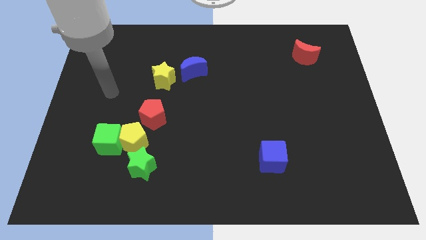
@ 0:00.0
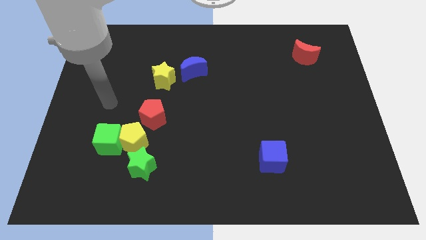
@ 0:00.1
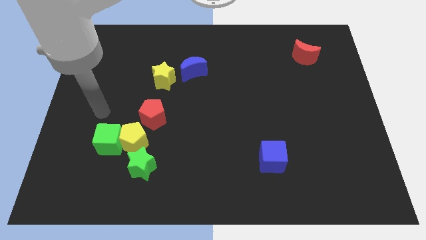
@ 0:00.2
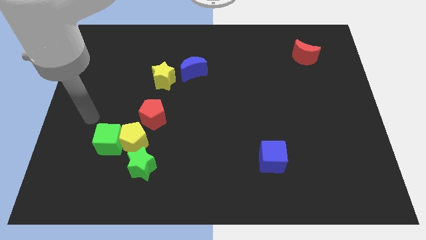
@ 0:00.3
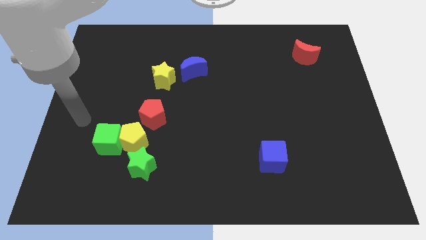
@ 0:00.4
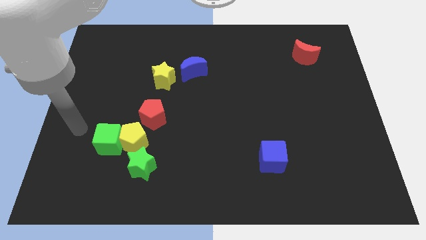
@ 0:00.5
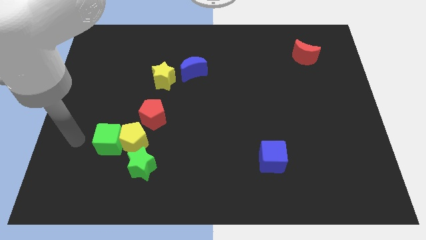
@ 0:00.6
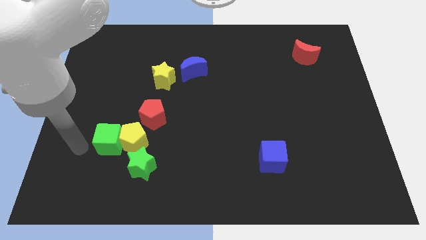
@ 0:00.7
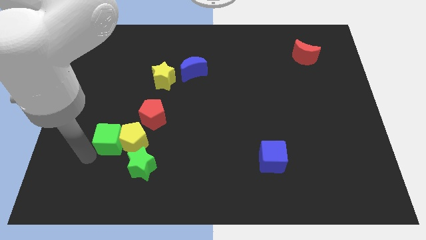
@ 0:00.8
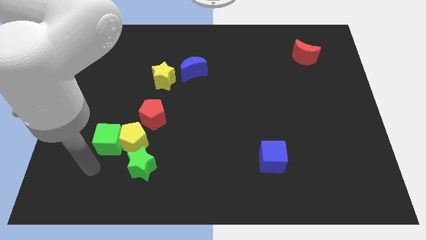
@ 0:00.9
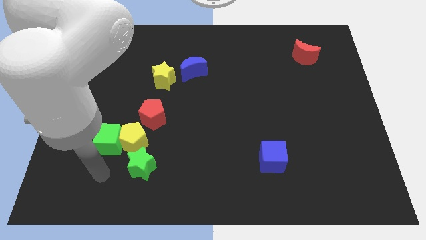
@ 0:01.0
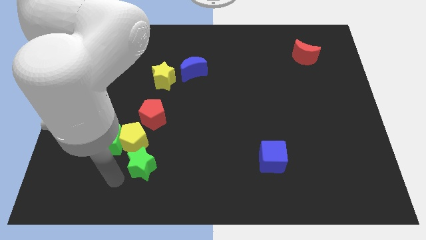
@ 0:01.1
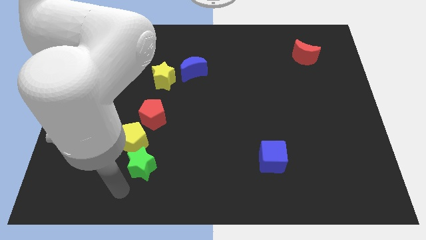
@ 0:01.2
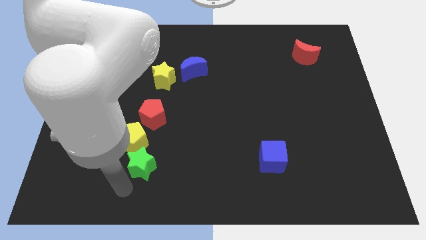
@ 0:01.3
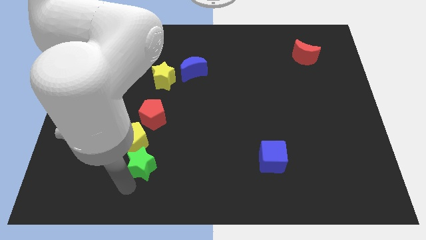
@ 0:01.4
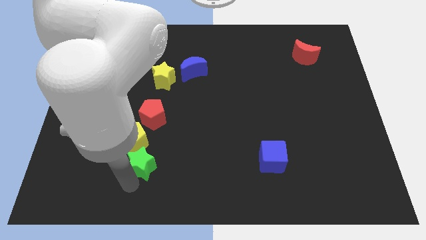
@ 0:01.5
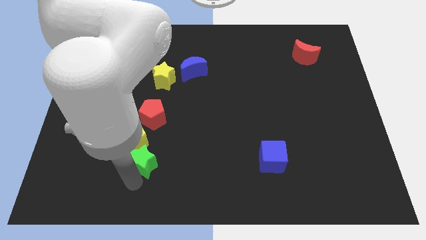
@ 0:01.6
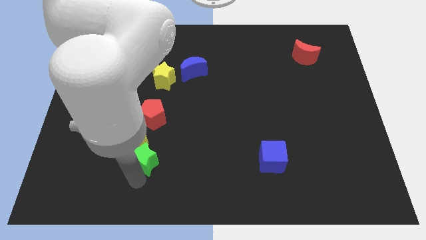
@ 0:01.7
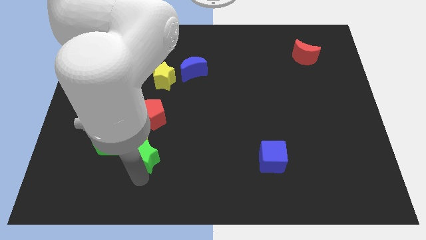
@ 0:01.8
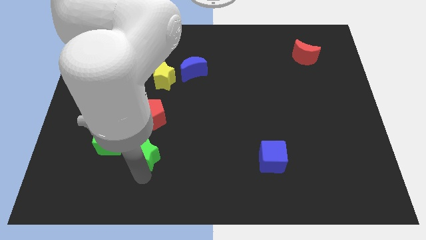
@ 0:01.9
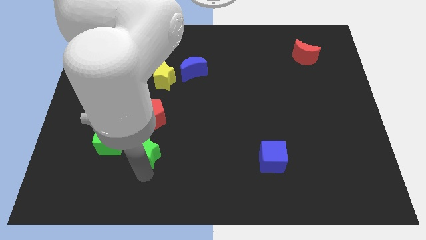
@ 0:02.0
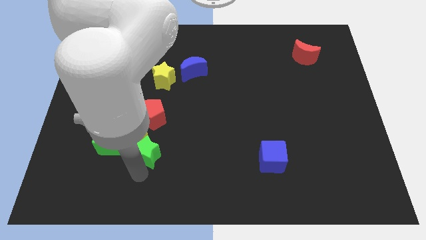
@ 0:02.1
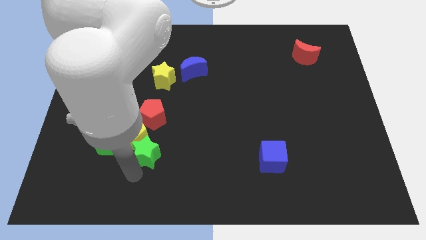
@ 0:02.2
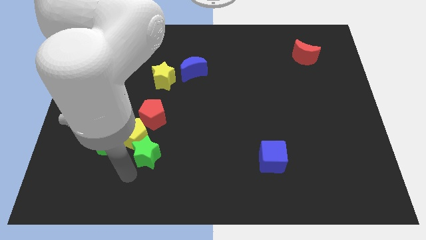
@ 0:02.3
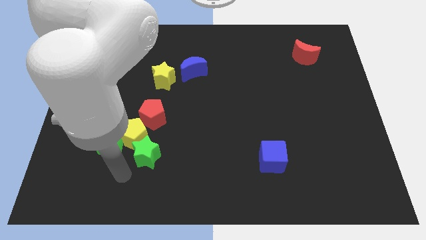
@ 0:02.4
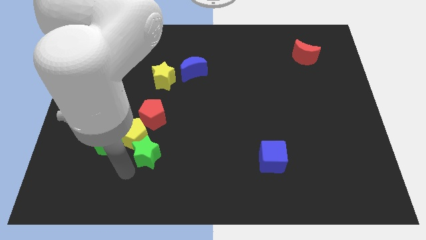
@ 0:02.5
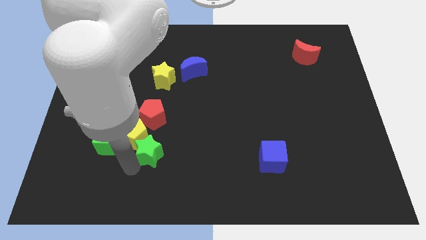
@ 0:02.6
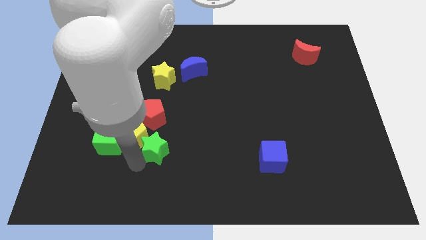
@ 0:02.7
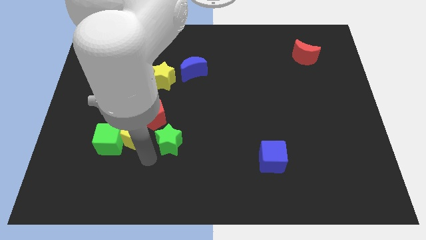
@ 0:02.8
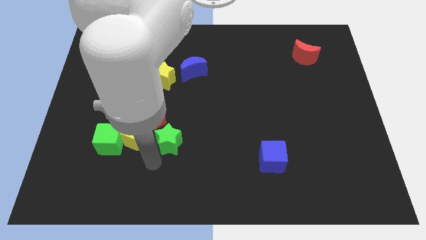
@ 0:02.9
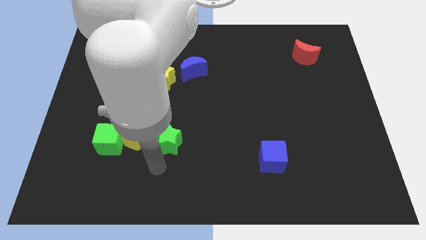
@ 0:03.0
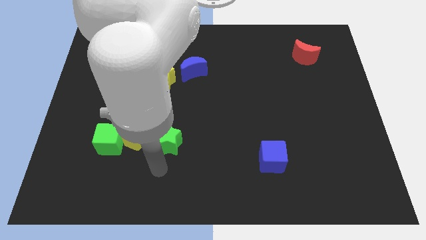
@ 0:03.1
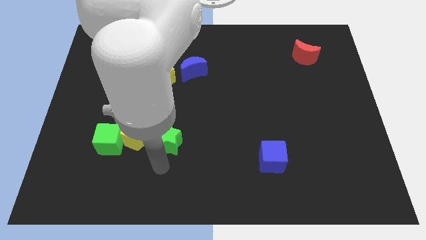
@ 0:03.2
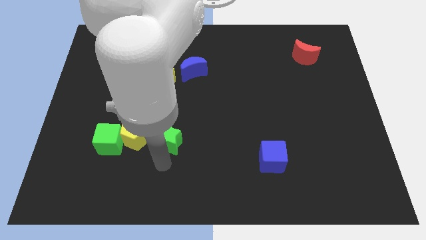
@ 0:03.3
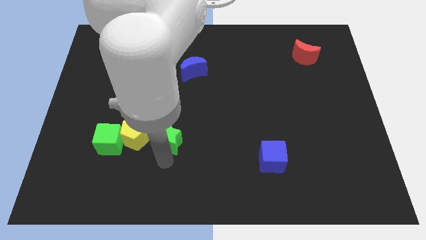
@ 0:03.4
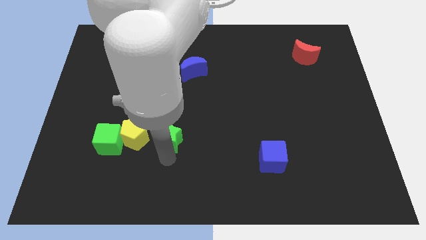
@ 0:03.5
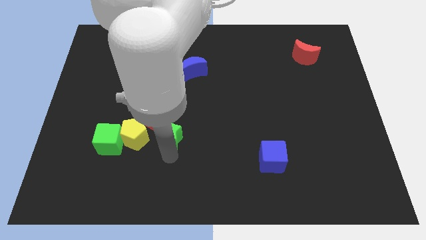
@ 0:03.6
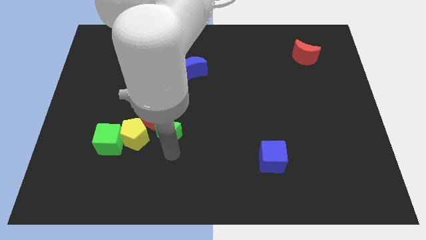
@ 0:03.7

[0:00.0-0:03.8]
move the green star a little upwards

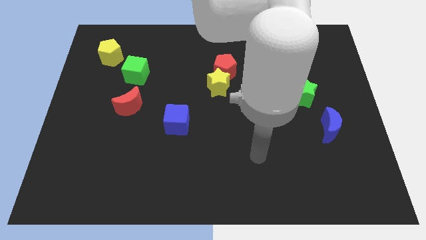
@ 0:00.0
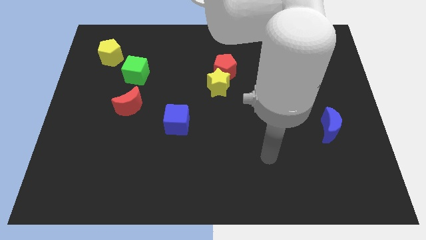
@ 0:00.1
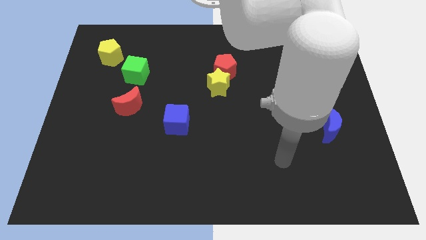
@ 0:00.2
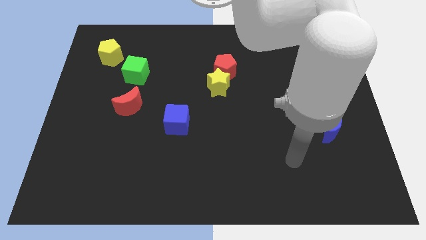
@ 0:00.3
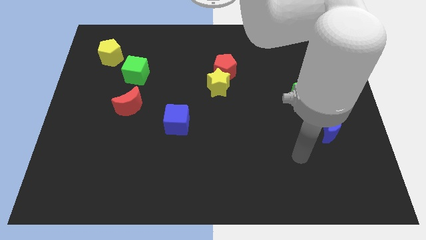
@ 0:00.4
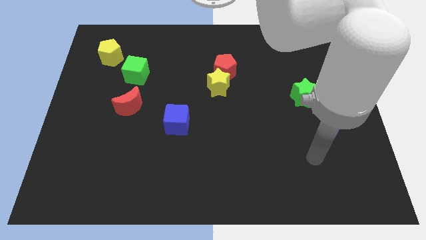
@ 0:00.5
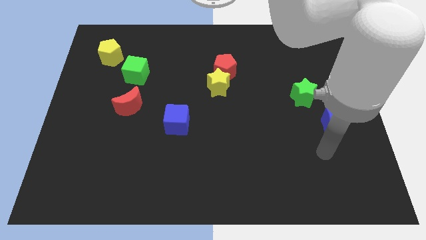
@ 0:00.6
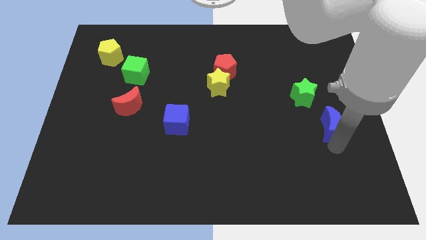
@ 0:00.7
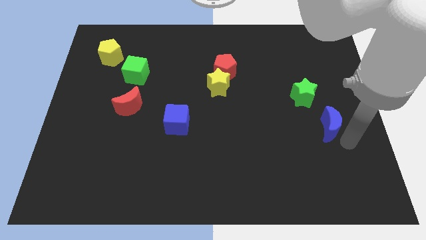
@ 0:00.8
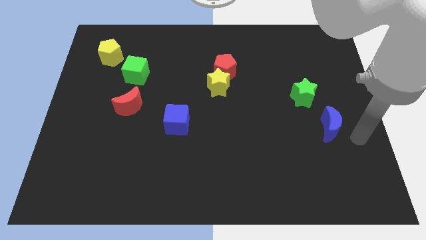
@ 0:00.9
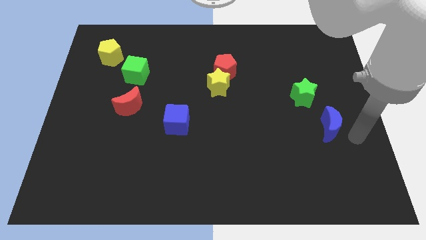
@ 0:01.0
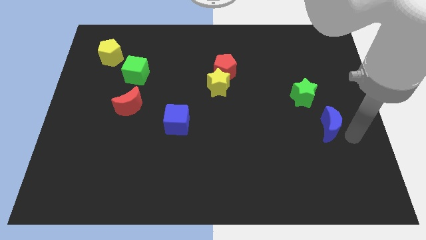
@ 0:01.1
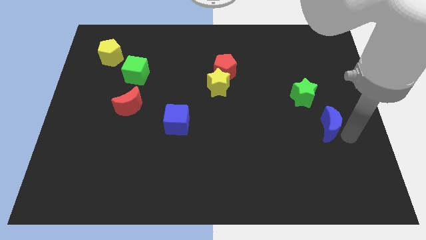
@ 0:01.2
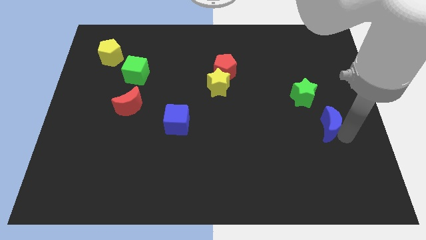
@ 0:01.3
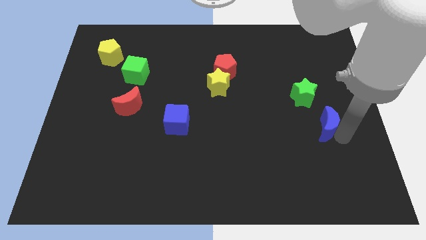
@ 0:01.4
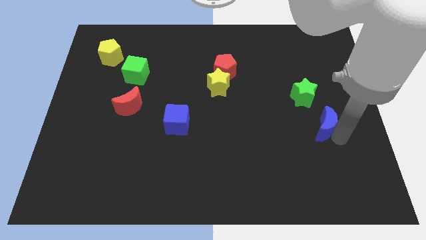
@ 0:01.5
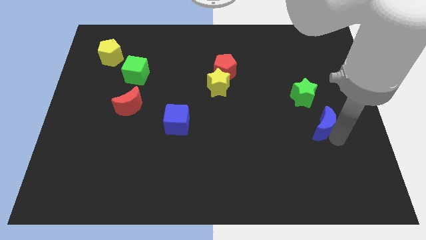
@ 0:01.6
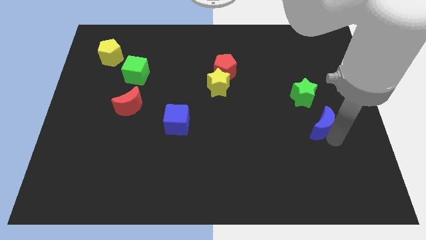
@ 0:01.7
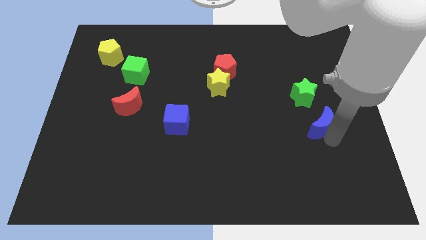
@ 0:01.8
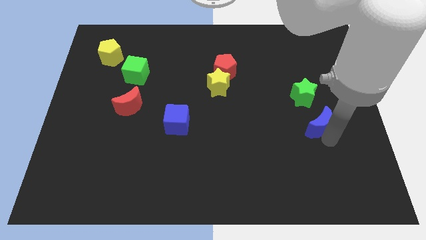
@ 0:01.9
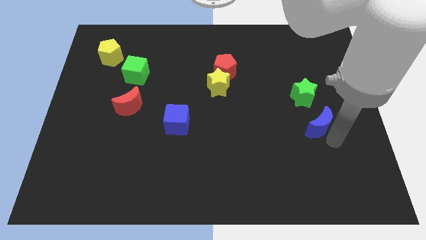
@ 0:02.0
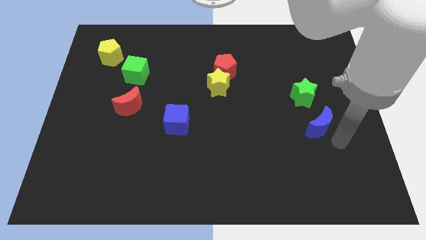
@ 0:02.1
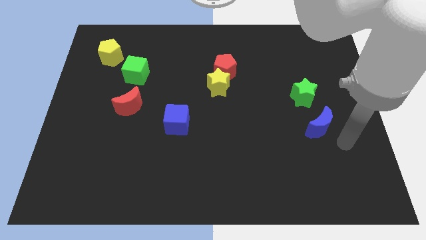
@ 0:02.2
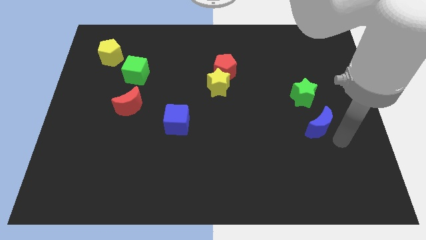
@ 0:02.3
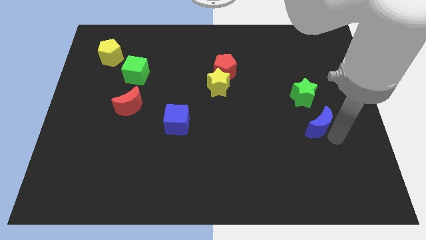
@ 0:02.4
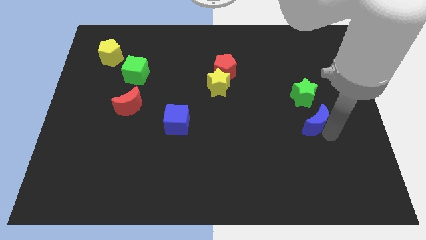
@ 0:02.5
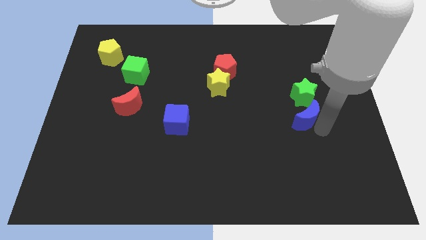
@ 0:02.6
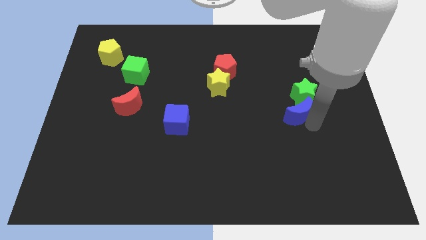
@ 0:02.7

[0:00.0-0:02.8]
move the blue moon somewhat diagonally upwards and left

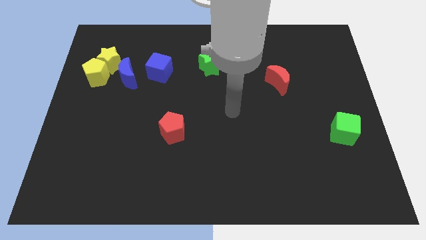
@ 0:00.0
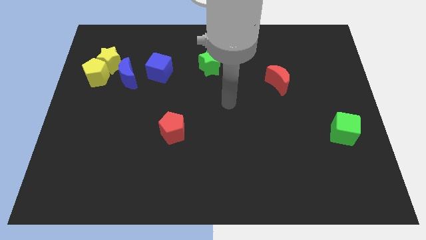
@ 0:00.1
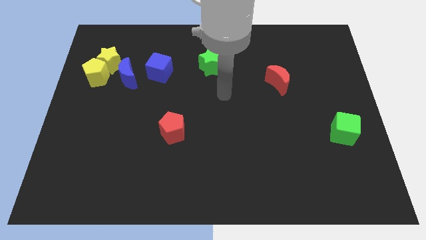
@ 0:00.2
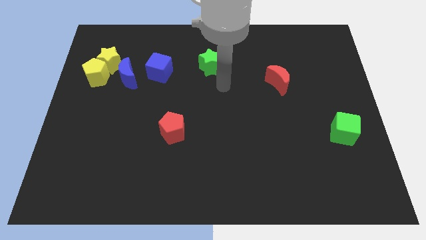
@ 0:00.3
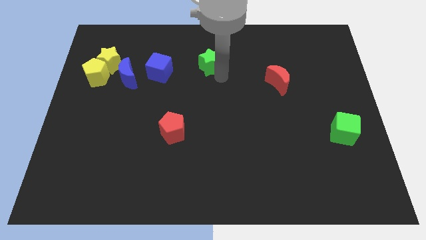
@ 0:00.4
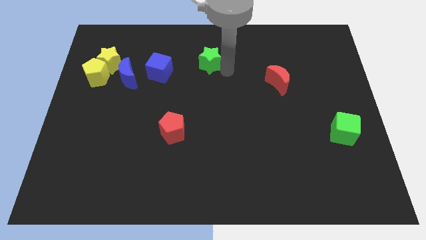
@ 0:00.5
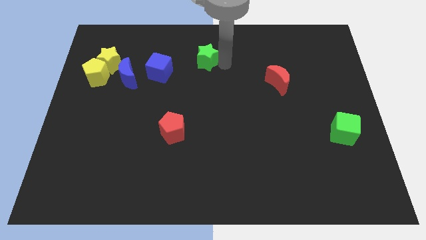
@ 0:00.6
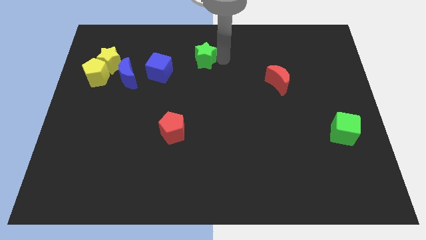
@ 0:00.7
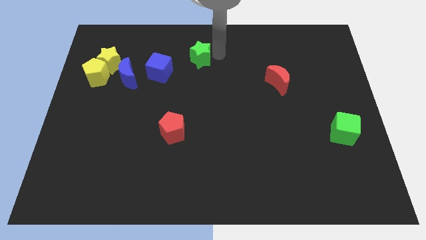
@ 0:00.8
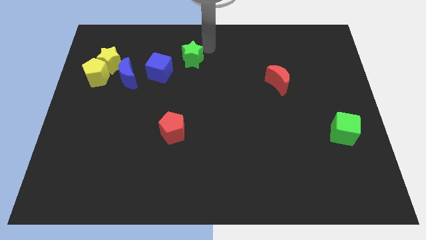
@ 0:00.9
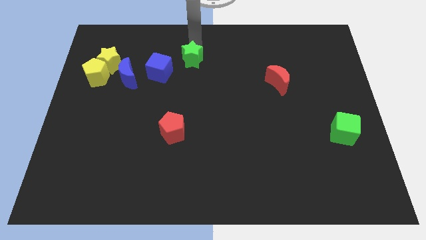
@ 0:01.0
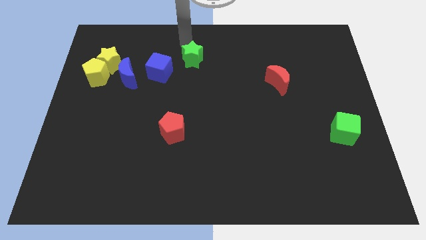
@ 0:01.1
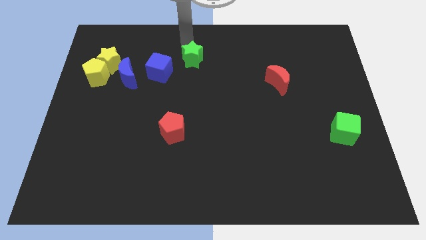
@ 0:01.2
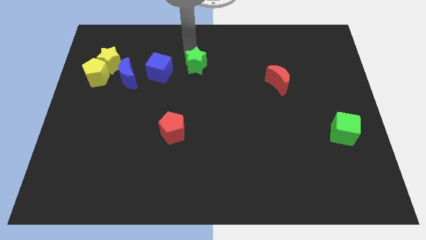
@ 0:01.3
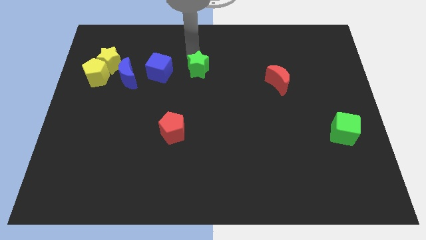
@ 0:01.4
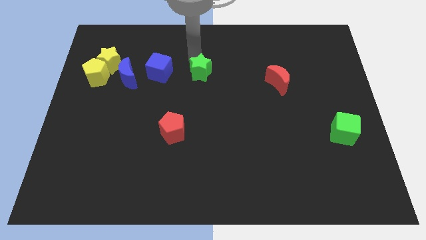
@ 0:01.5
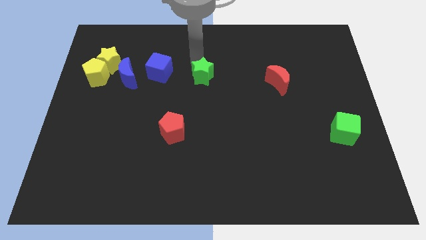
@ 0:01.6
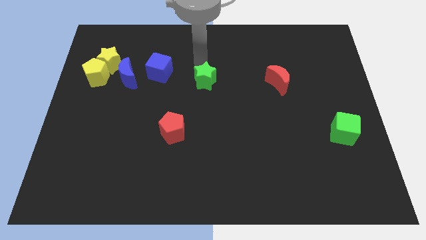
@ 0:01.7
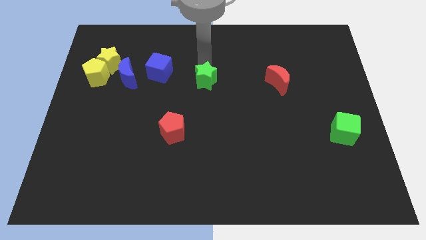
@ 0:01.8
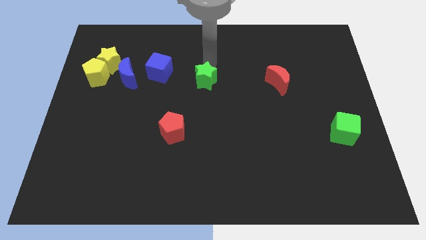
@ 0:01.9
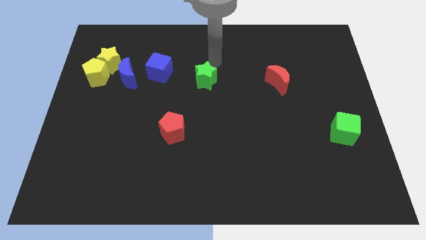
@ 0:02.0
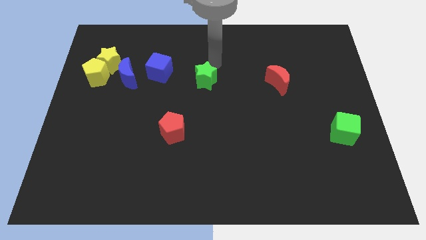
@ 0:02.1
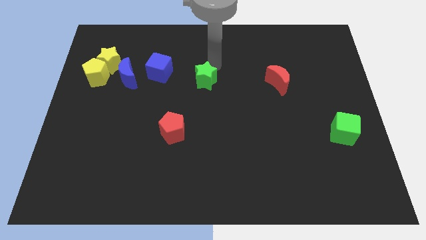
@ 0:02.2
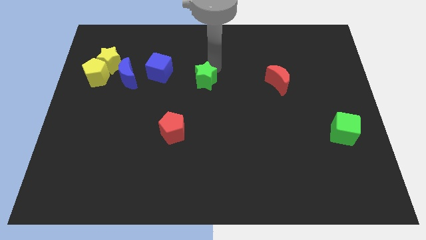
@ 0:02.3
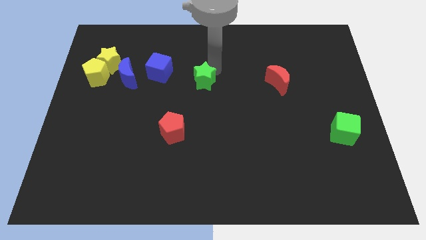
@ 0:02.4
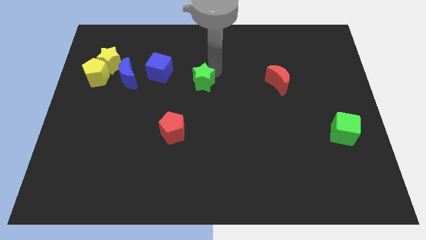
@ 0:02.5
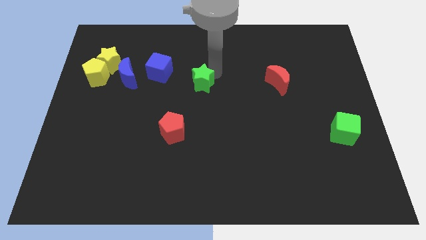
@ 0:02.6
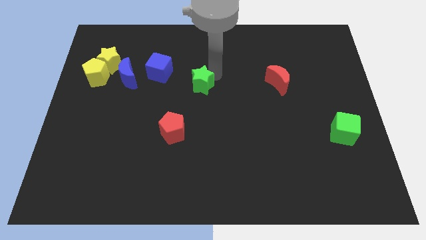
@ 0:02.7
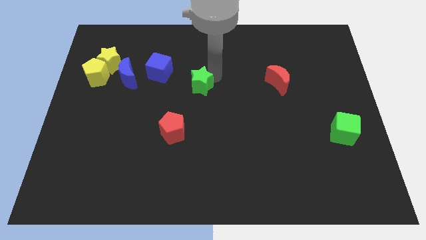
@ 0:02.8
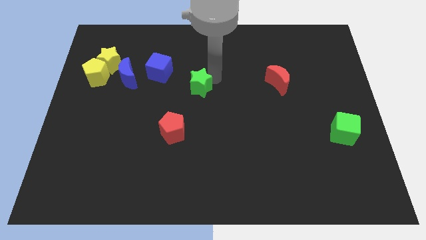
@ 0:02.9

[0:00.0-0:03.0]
slightly push the green star downwards
